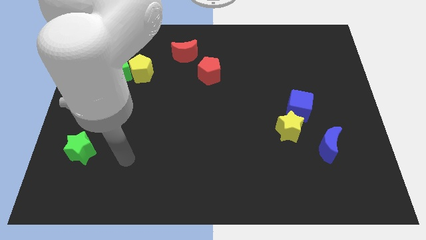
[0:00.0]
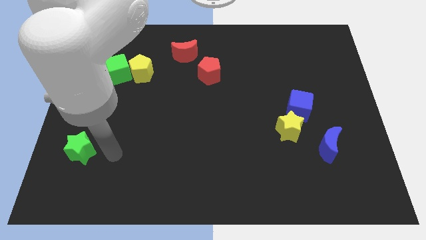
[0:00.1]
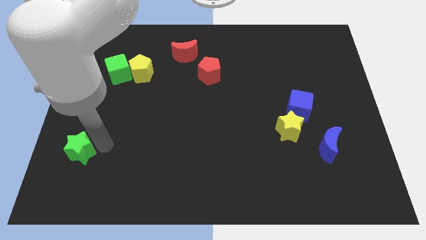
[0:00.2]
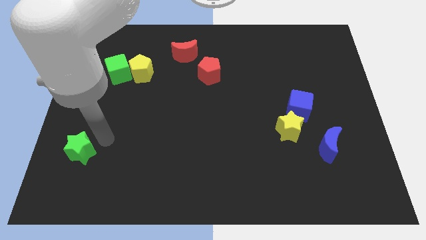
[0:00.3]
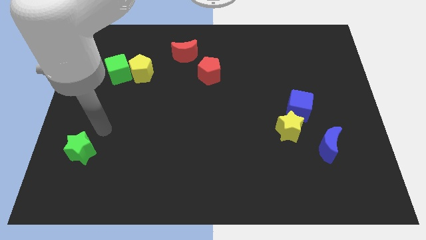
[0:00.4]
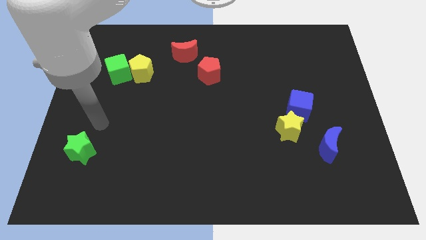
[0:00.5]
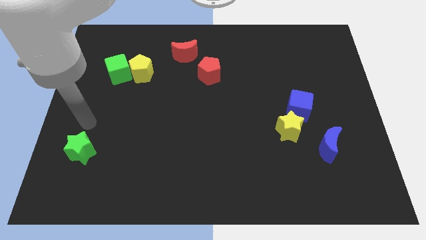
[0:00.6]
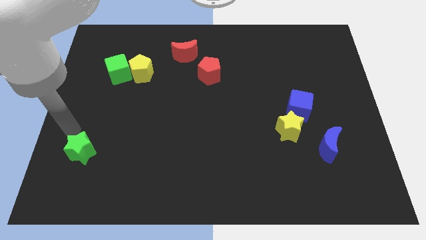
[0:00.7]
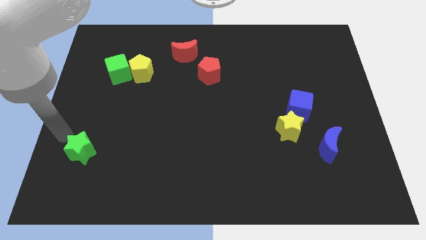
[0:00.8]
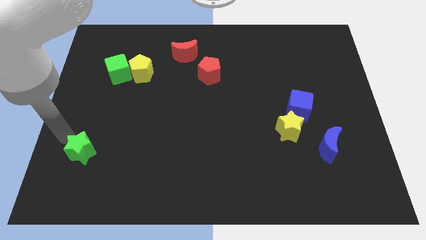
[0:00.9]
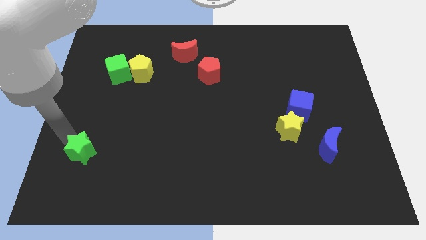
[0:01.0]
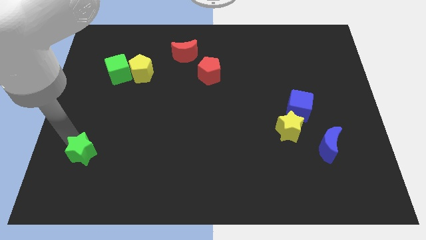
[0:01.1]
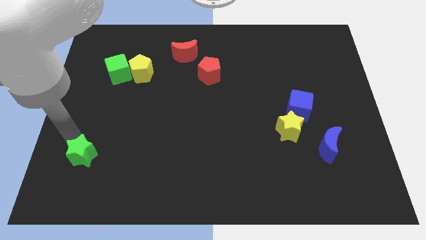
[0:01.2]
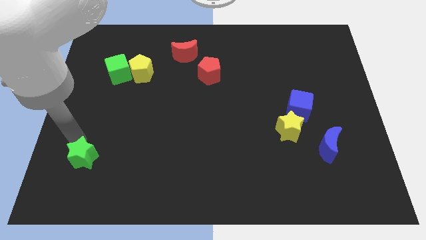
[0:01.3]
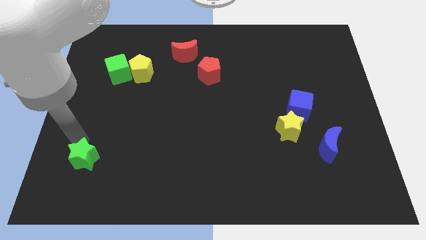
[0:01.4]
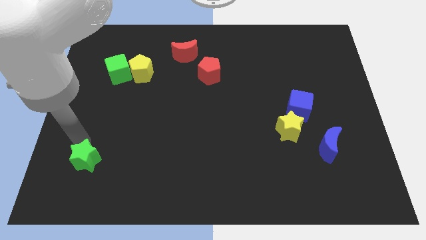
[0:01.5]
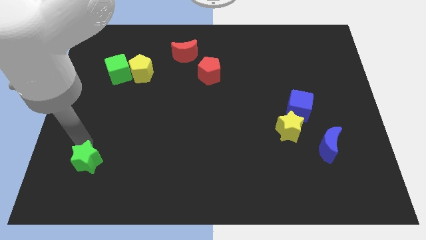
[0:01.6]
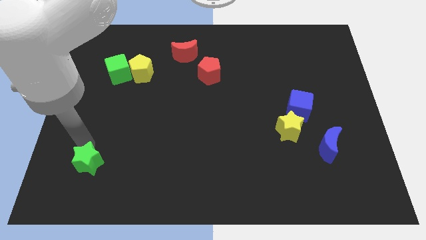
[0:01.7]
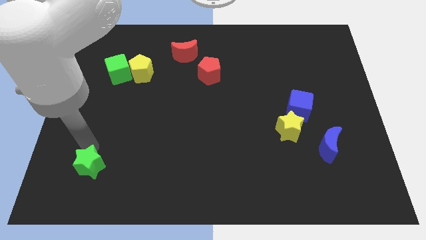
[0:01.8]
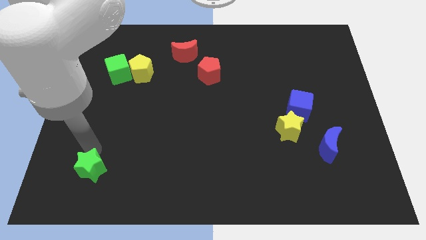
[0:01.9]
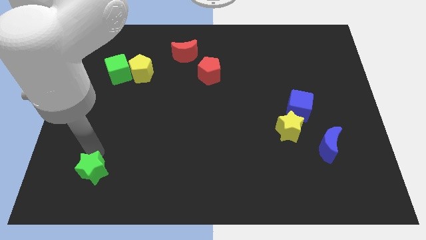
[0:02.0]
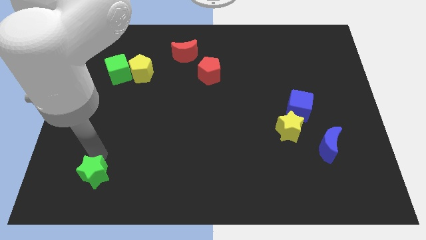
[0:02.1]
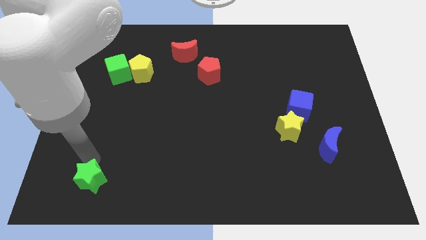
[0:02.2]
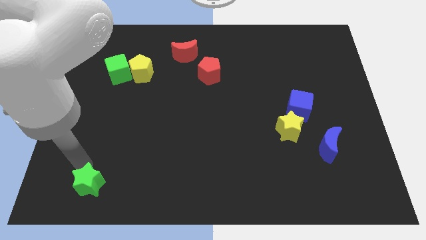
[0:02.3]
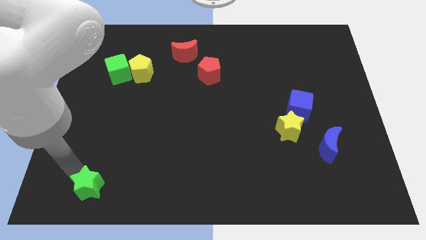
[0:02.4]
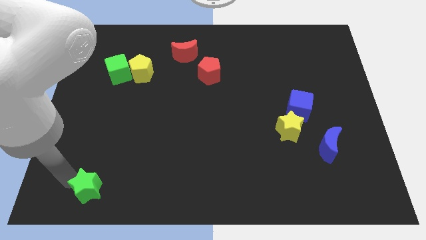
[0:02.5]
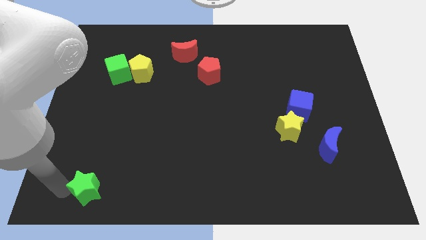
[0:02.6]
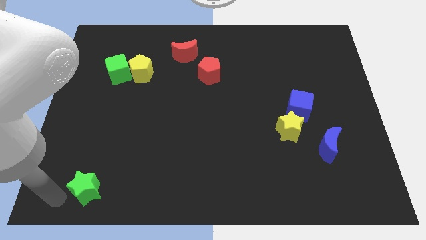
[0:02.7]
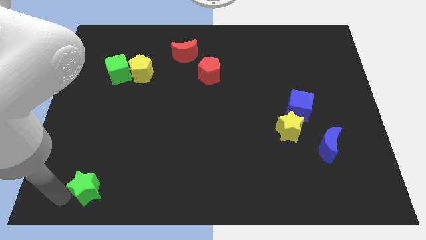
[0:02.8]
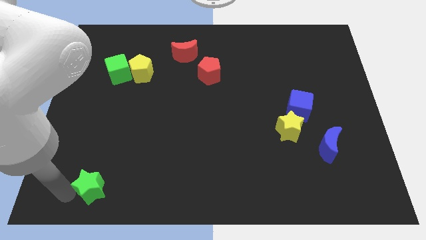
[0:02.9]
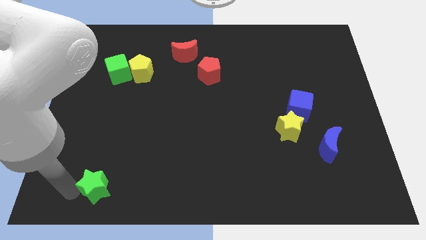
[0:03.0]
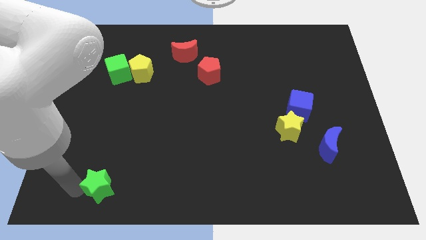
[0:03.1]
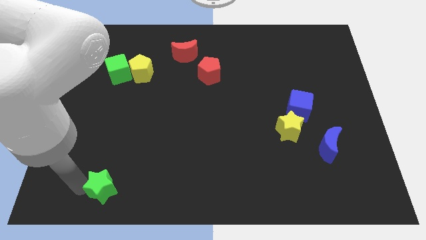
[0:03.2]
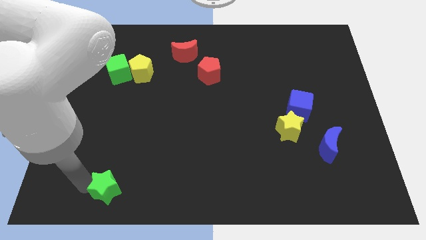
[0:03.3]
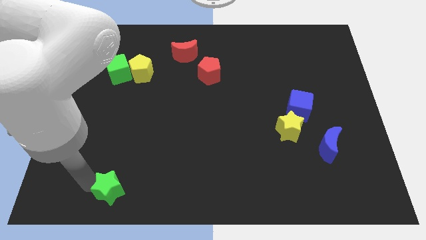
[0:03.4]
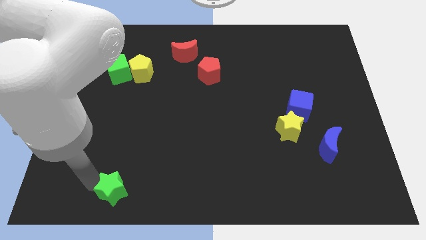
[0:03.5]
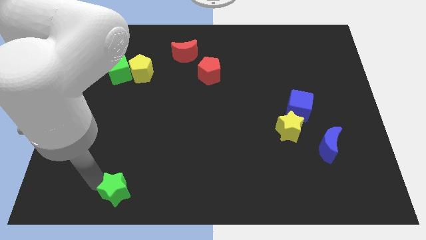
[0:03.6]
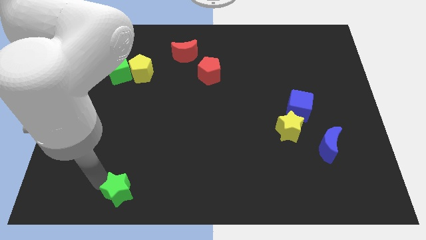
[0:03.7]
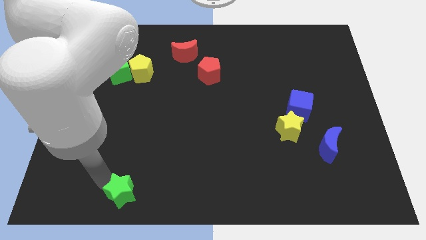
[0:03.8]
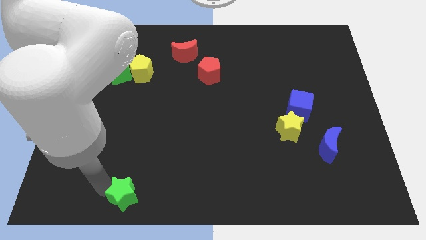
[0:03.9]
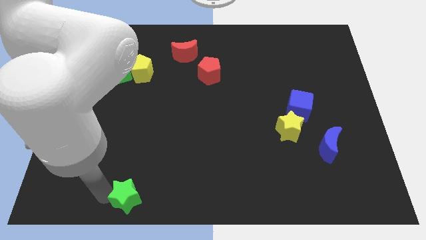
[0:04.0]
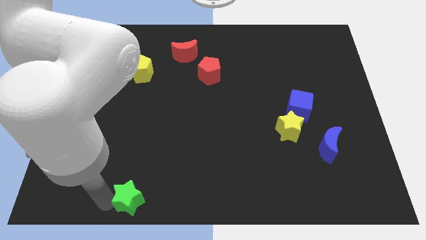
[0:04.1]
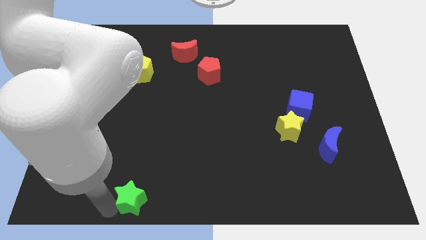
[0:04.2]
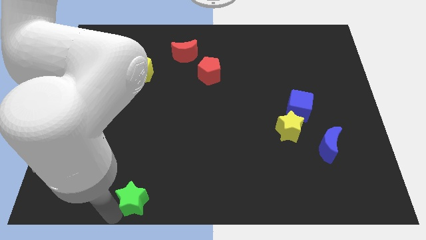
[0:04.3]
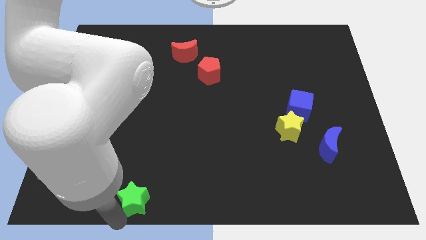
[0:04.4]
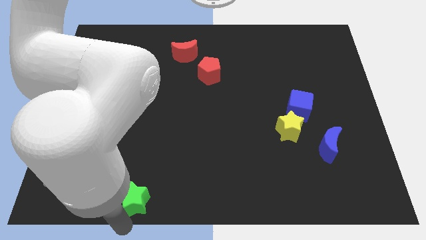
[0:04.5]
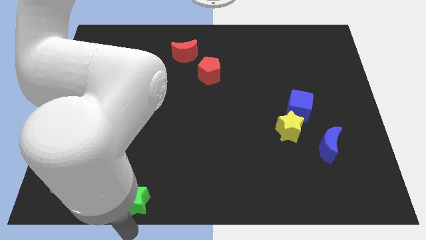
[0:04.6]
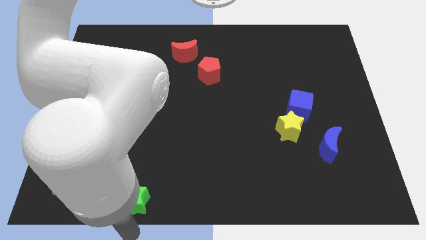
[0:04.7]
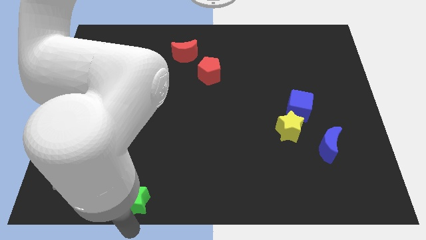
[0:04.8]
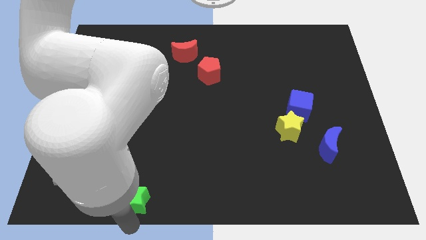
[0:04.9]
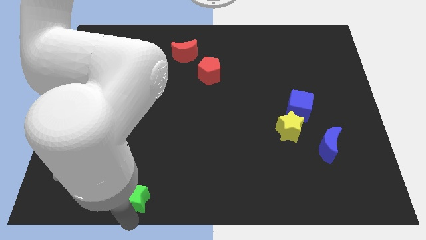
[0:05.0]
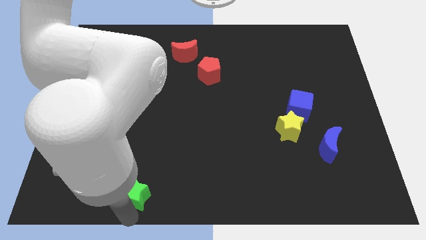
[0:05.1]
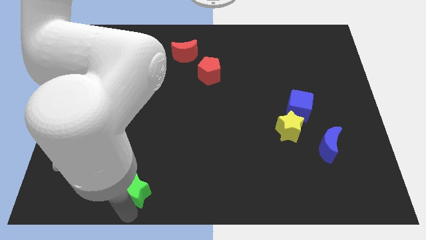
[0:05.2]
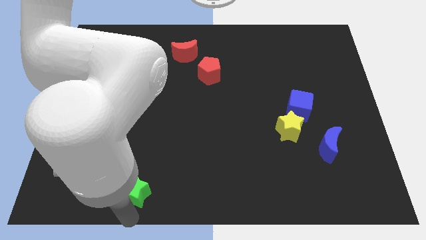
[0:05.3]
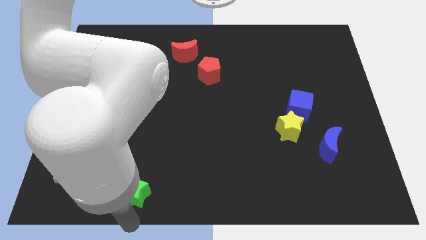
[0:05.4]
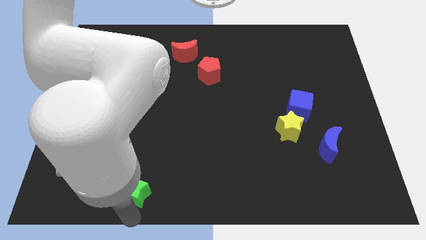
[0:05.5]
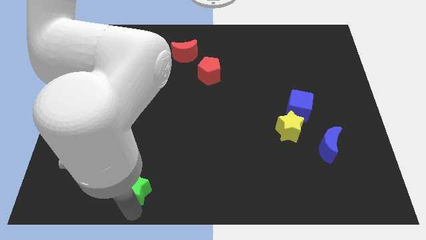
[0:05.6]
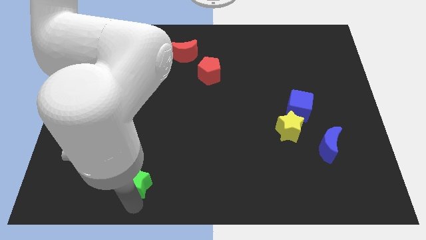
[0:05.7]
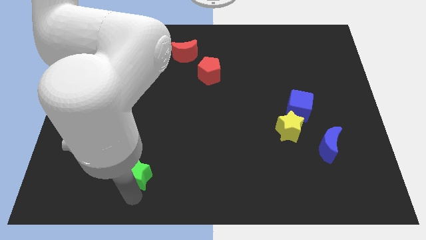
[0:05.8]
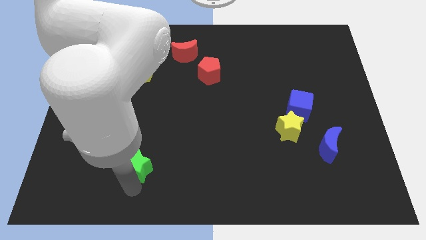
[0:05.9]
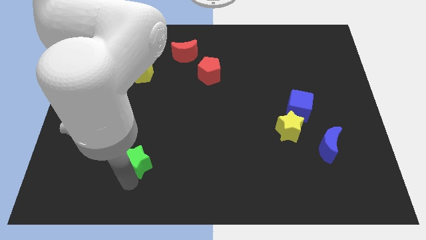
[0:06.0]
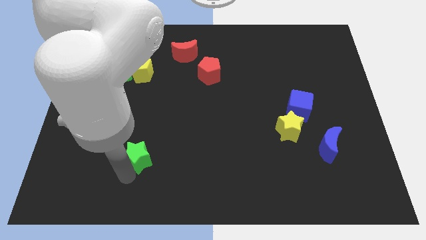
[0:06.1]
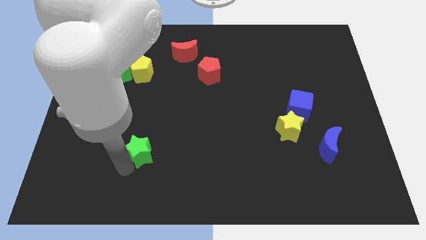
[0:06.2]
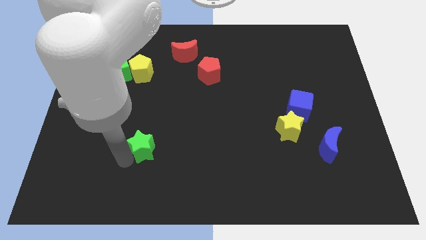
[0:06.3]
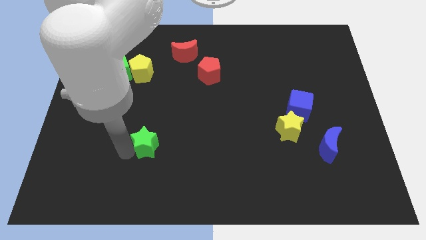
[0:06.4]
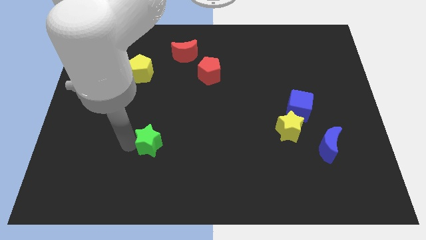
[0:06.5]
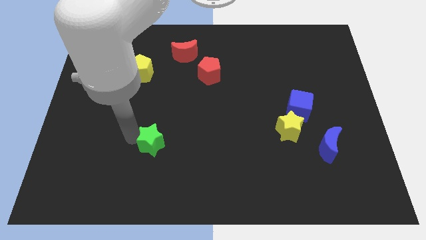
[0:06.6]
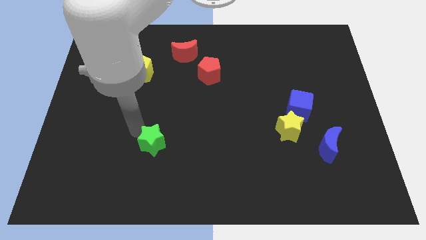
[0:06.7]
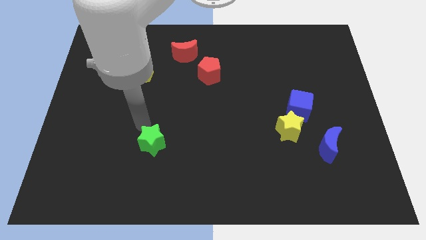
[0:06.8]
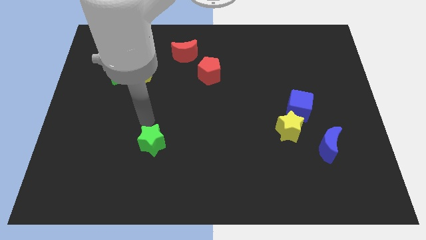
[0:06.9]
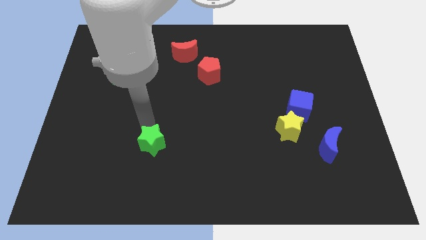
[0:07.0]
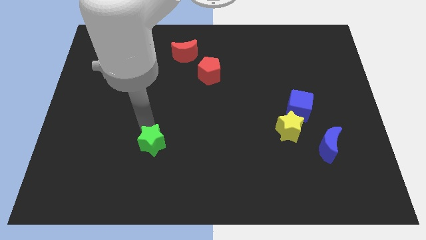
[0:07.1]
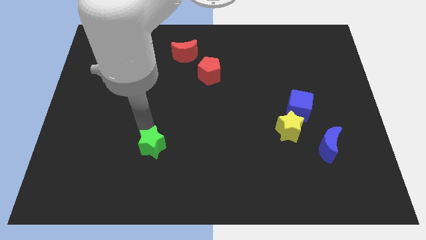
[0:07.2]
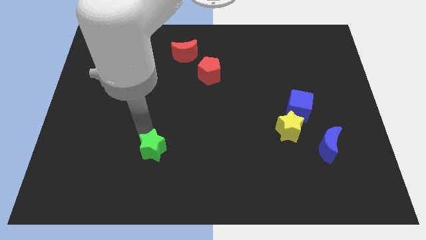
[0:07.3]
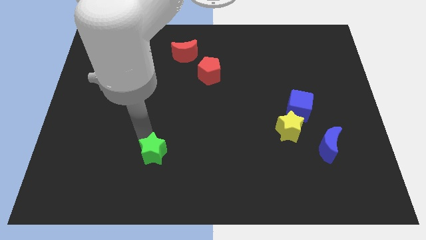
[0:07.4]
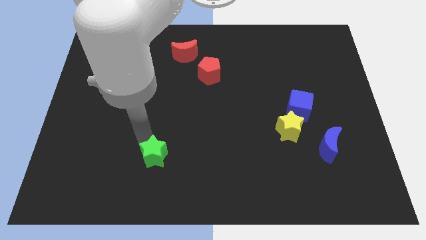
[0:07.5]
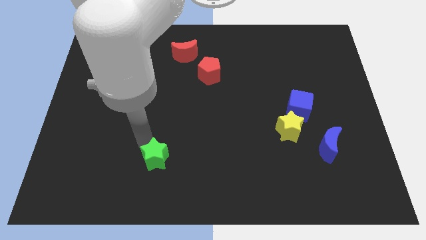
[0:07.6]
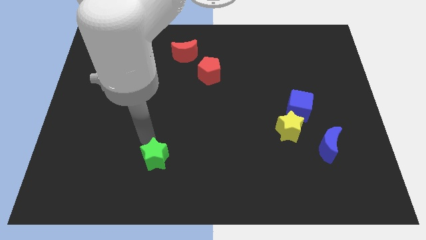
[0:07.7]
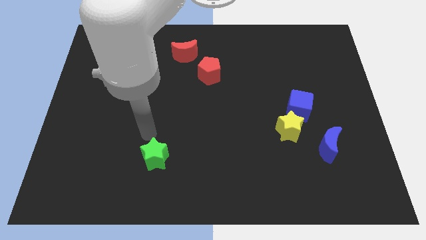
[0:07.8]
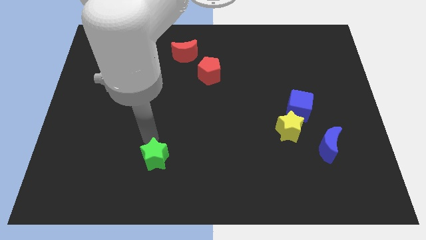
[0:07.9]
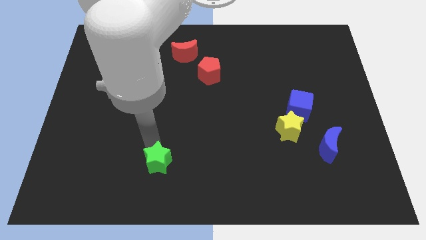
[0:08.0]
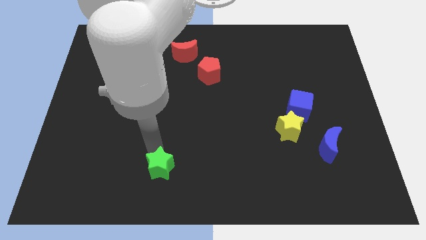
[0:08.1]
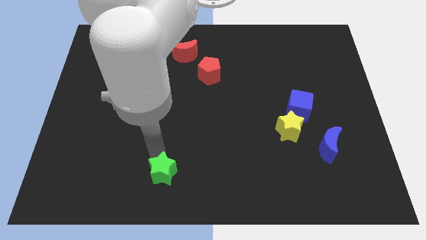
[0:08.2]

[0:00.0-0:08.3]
push the green star to the bottom side
